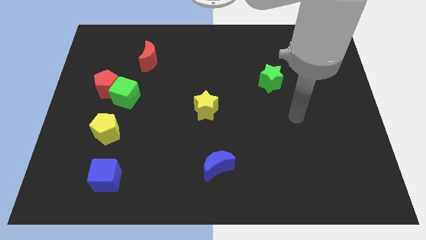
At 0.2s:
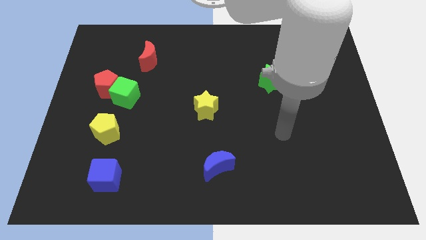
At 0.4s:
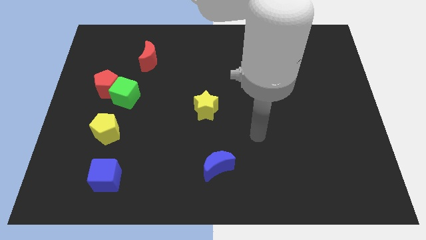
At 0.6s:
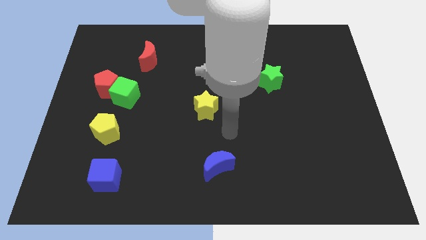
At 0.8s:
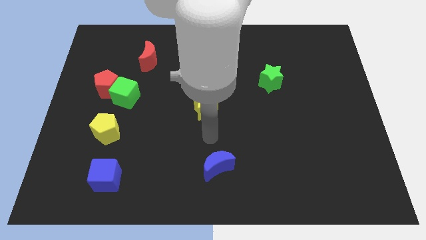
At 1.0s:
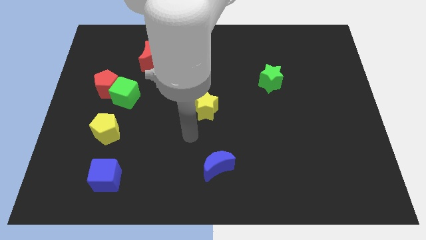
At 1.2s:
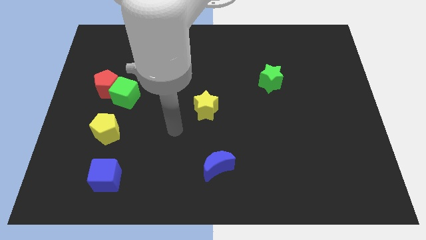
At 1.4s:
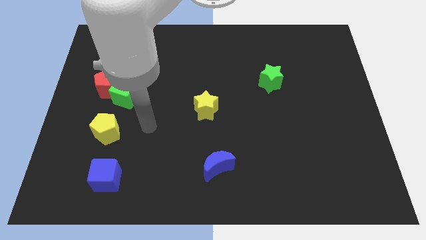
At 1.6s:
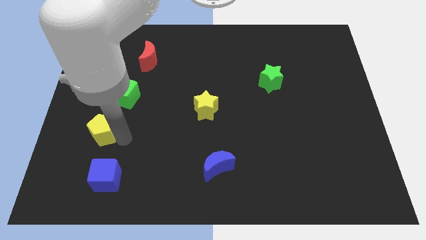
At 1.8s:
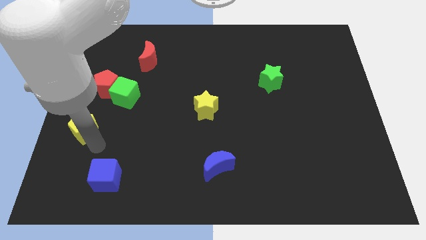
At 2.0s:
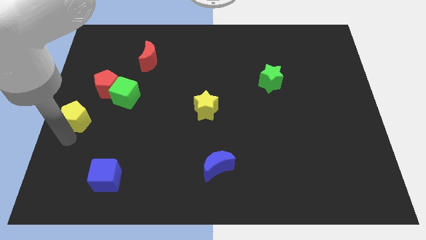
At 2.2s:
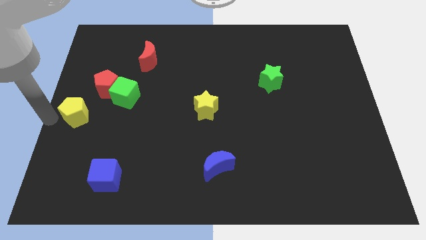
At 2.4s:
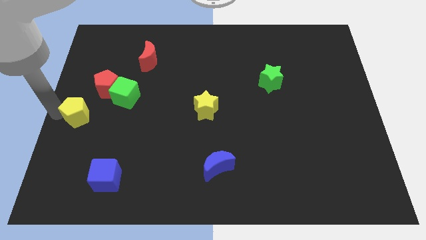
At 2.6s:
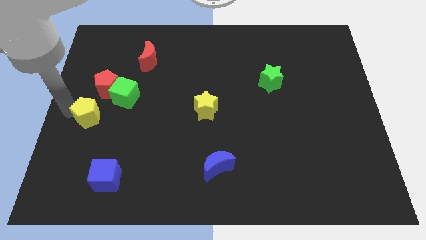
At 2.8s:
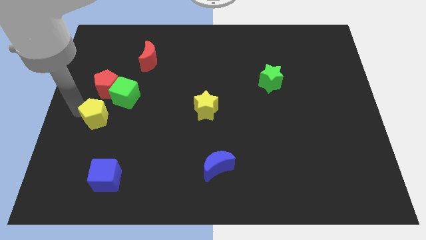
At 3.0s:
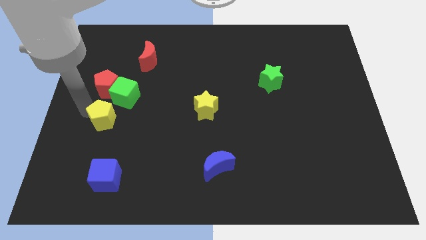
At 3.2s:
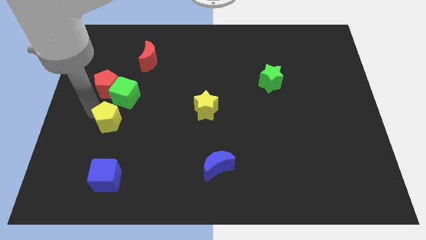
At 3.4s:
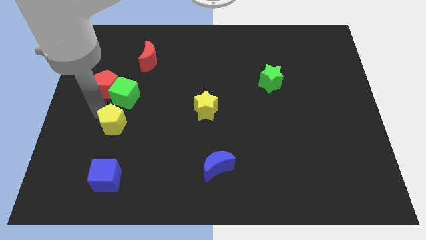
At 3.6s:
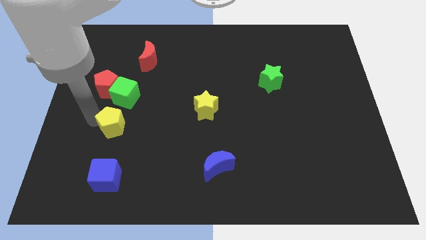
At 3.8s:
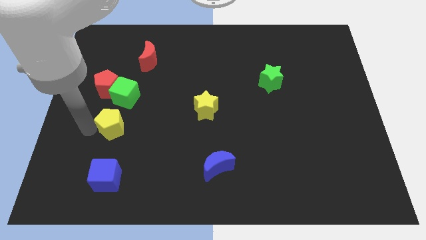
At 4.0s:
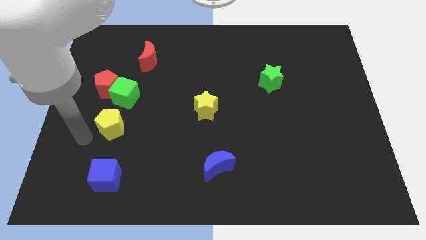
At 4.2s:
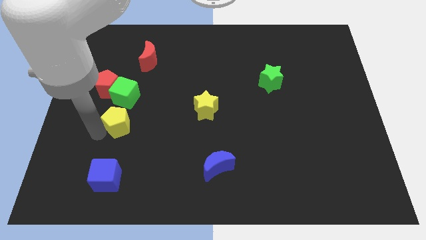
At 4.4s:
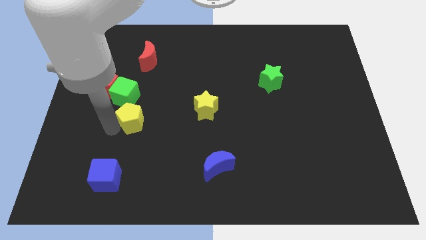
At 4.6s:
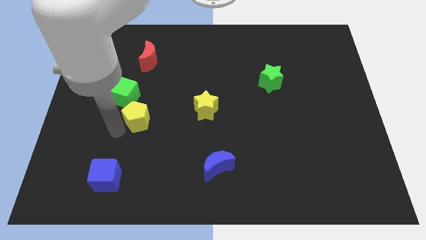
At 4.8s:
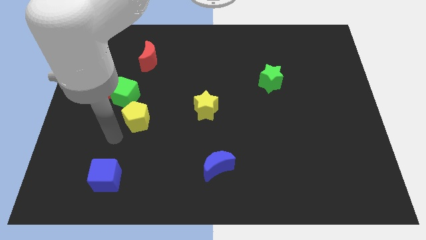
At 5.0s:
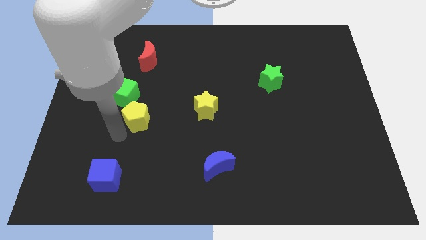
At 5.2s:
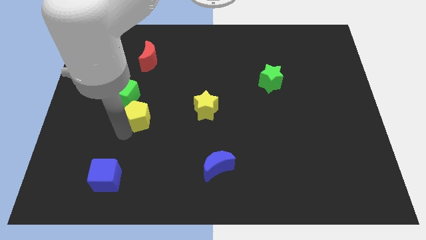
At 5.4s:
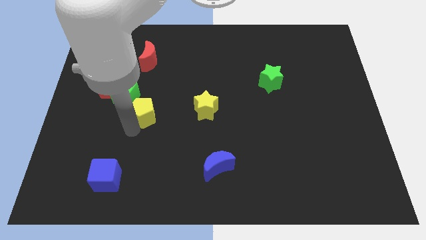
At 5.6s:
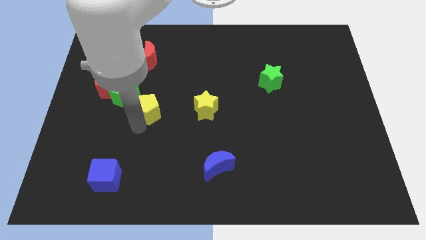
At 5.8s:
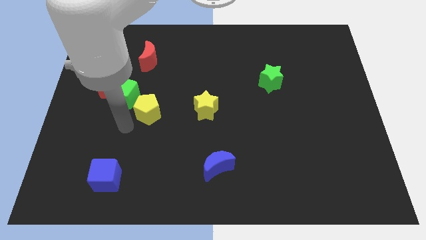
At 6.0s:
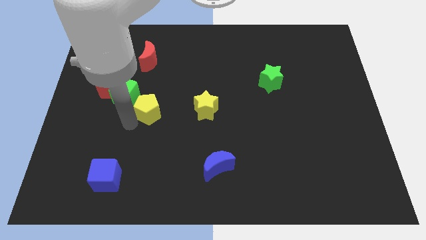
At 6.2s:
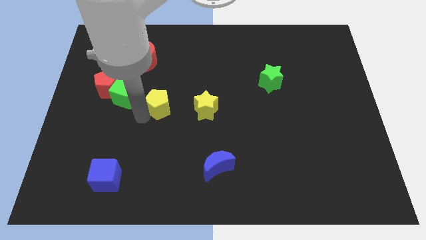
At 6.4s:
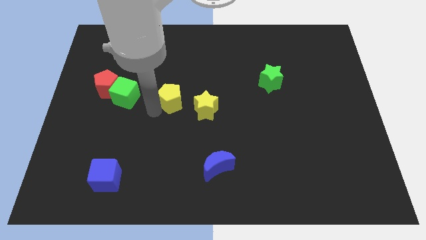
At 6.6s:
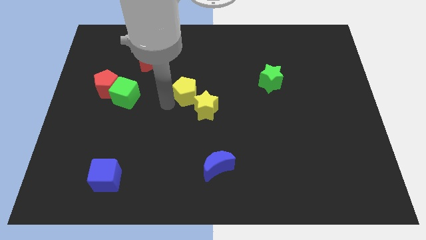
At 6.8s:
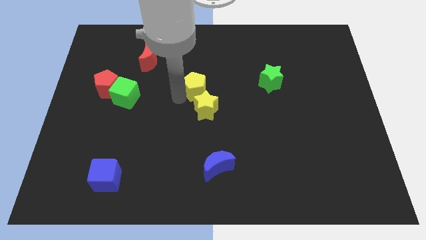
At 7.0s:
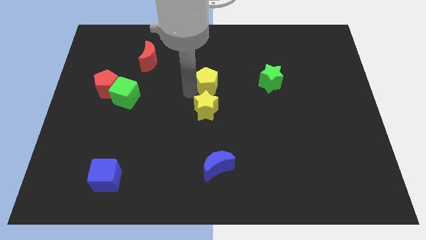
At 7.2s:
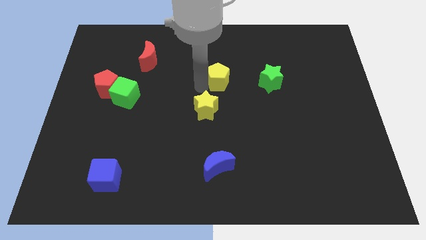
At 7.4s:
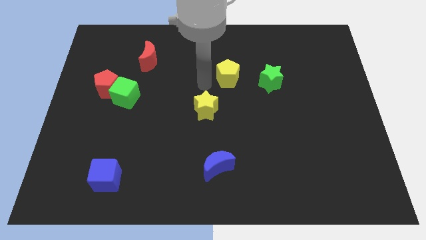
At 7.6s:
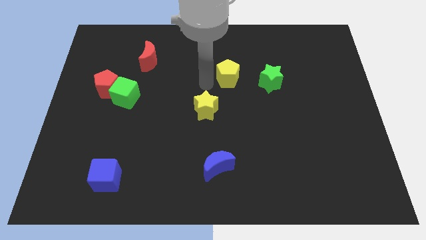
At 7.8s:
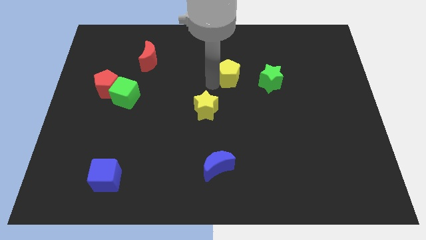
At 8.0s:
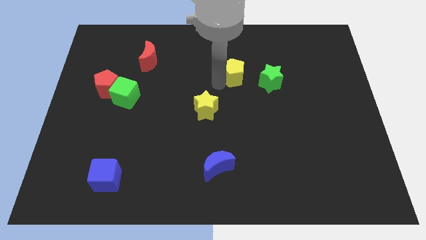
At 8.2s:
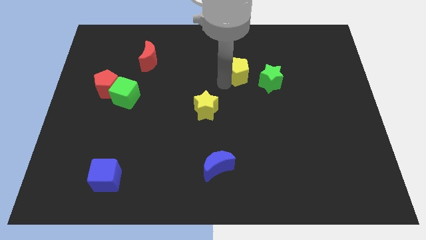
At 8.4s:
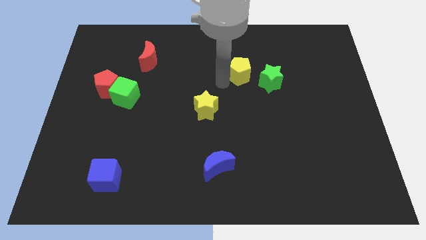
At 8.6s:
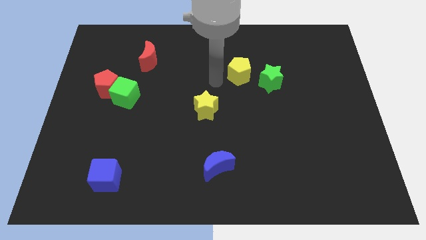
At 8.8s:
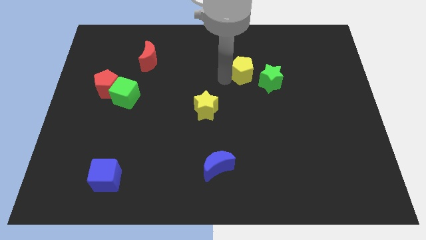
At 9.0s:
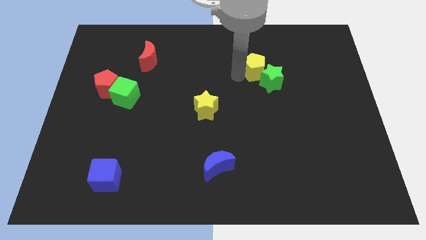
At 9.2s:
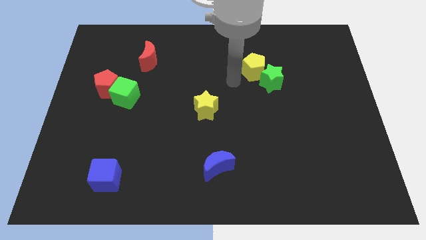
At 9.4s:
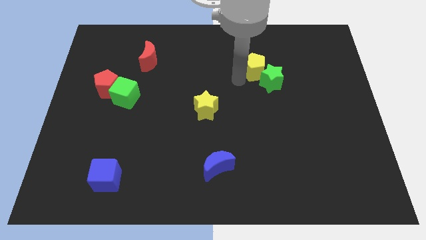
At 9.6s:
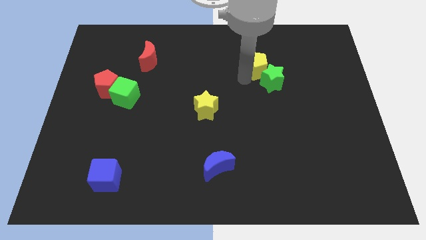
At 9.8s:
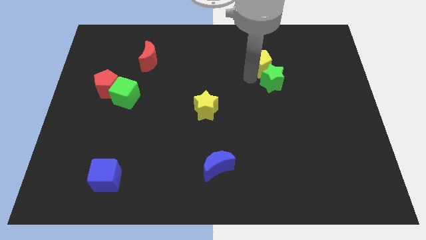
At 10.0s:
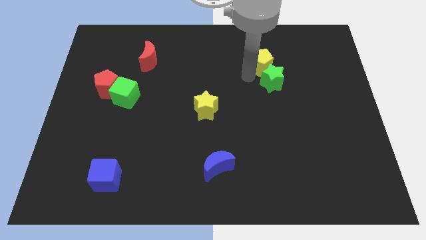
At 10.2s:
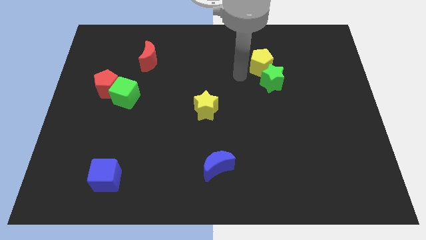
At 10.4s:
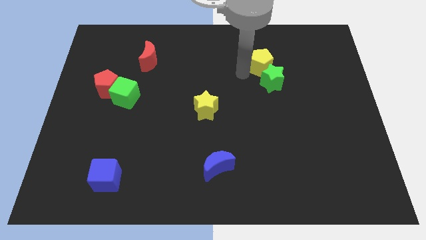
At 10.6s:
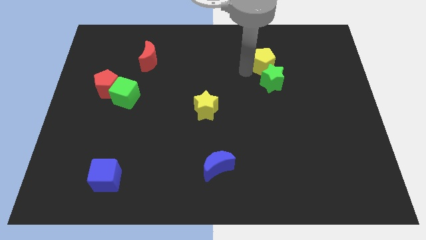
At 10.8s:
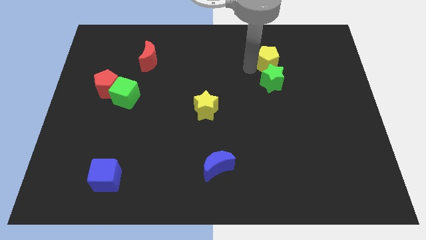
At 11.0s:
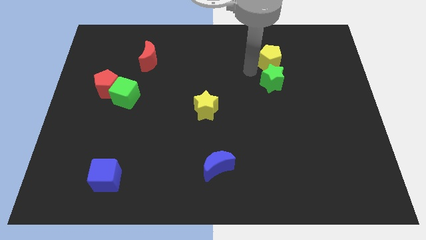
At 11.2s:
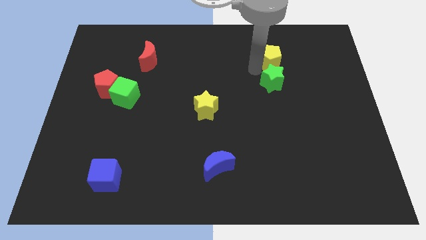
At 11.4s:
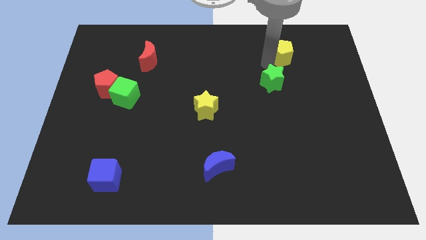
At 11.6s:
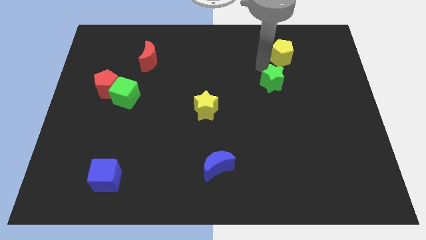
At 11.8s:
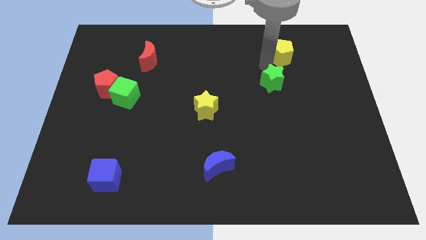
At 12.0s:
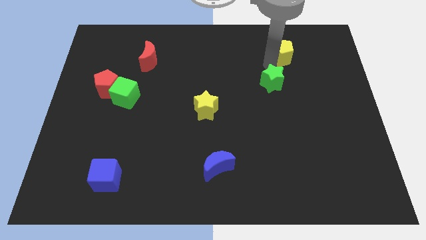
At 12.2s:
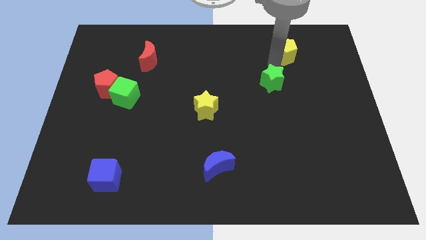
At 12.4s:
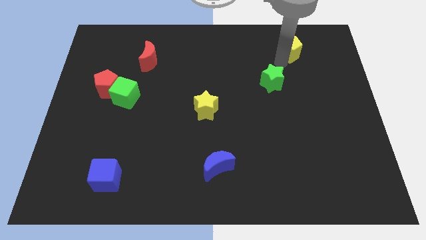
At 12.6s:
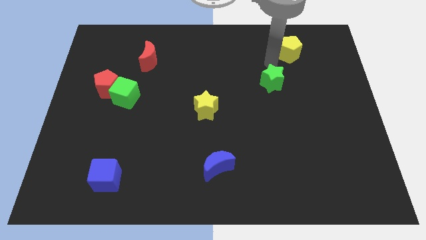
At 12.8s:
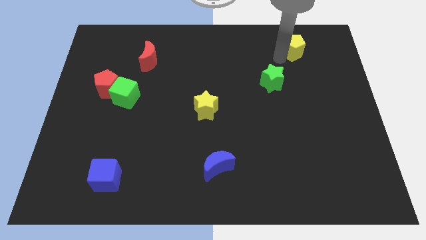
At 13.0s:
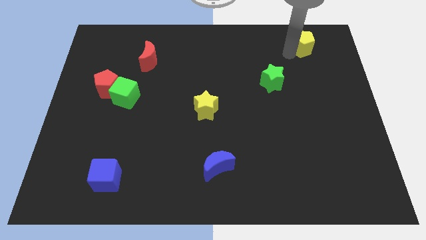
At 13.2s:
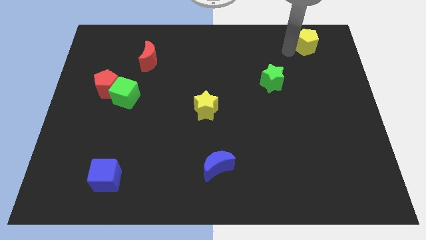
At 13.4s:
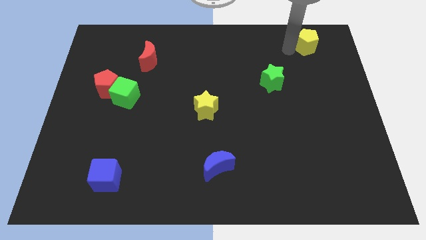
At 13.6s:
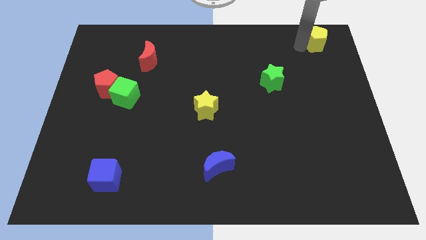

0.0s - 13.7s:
slide the yellow pentagon to the top right
